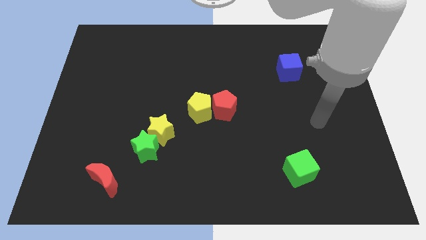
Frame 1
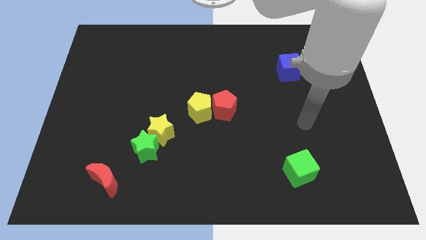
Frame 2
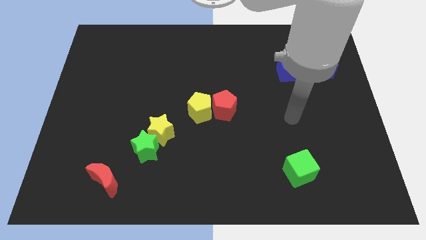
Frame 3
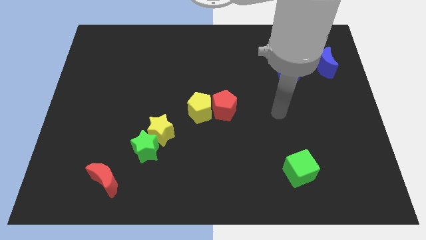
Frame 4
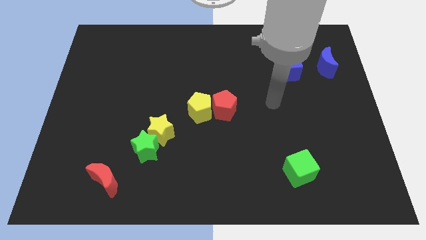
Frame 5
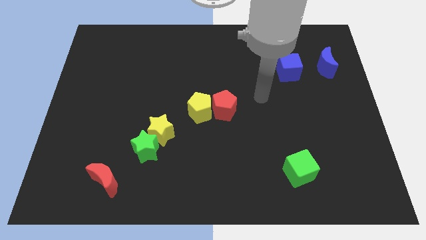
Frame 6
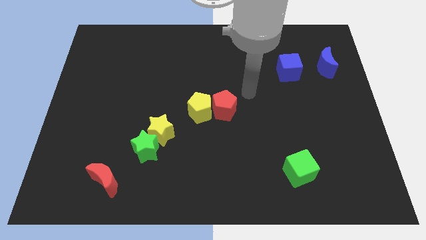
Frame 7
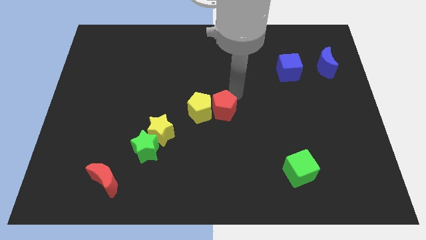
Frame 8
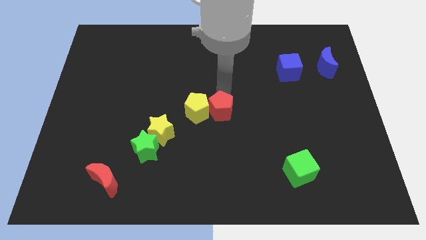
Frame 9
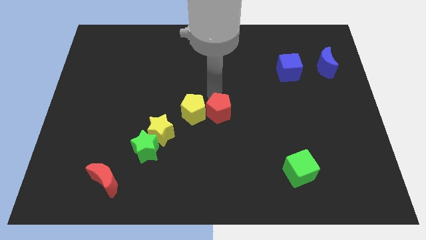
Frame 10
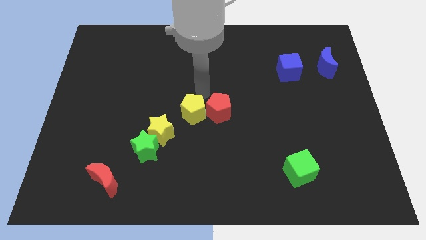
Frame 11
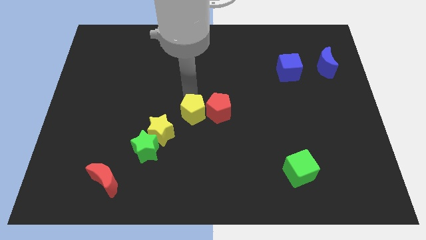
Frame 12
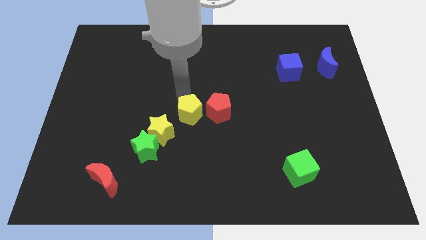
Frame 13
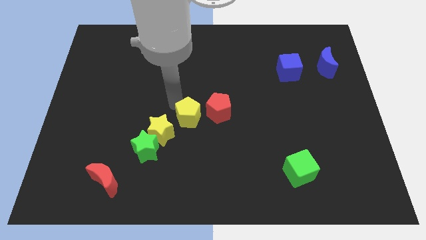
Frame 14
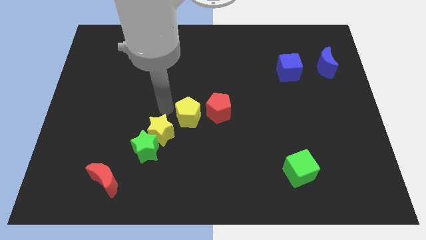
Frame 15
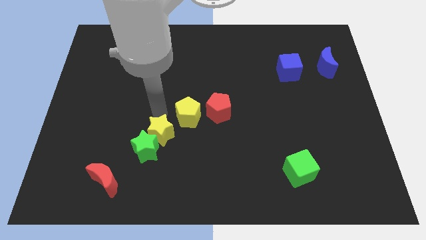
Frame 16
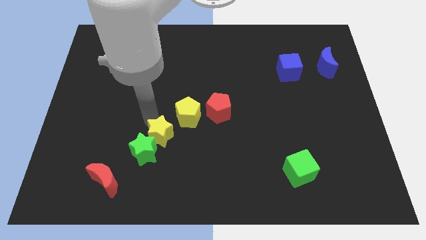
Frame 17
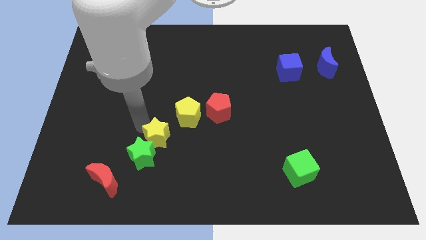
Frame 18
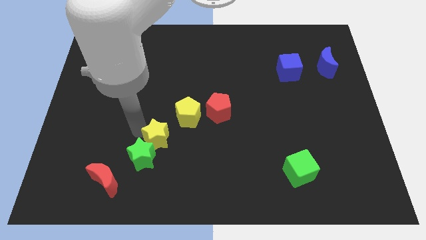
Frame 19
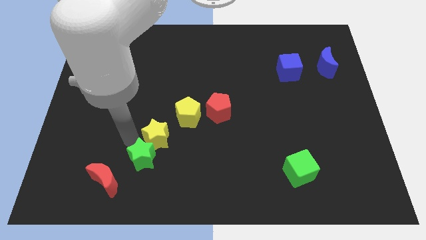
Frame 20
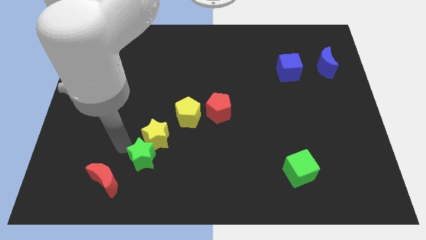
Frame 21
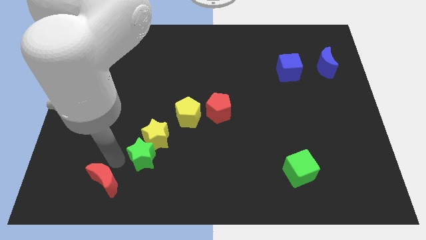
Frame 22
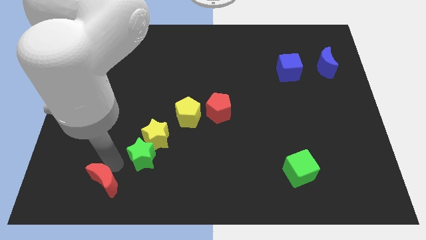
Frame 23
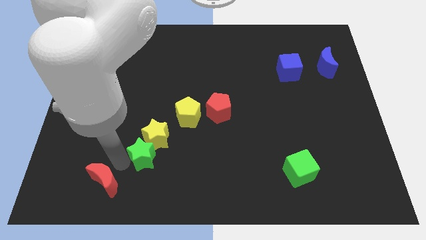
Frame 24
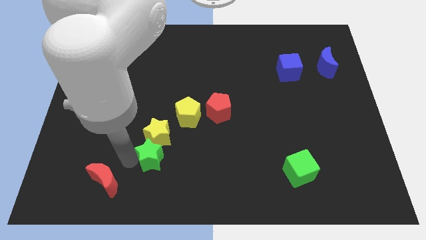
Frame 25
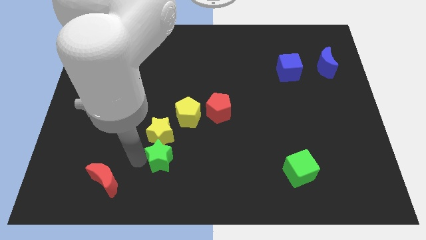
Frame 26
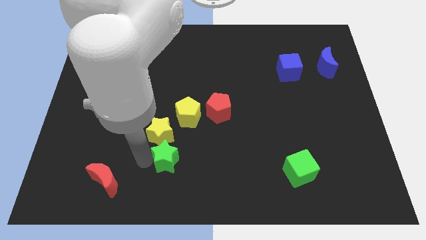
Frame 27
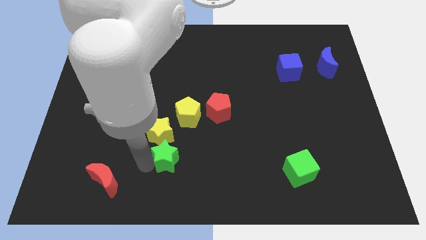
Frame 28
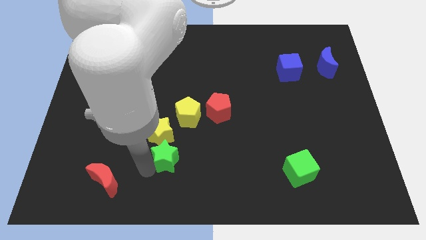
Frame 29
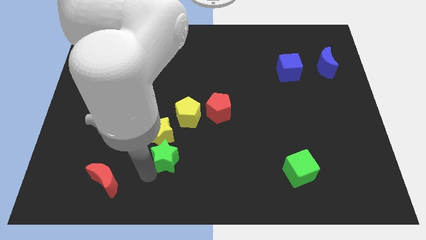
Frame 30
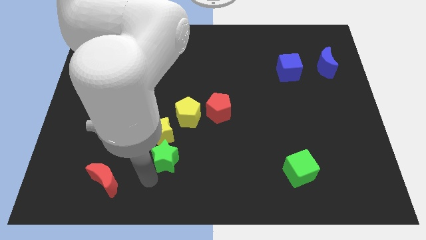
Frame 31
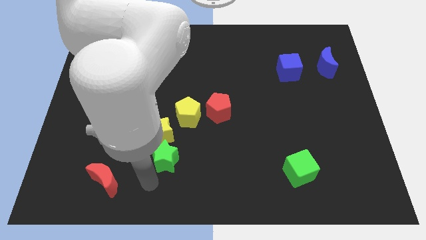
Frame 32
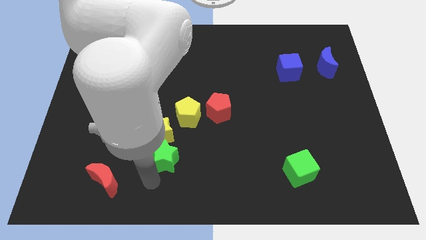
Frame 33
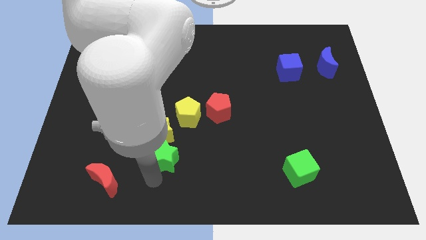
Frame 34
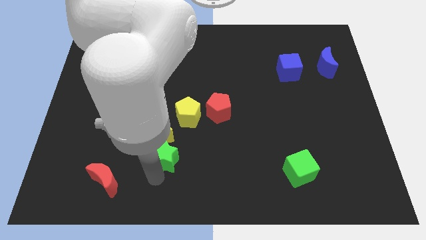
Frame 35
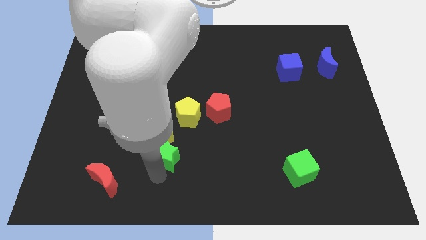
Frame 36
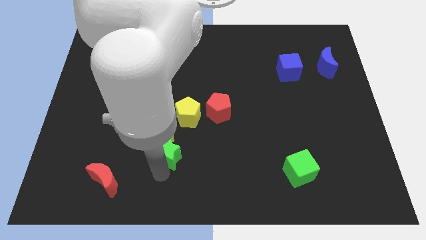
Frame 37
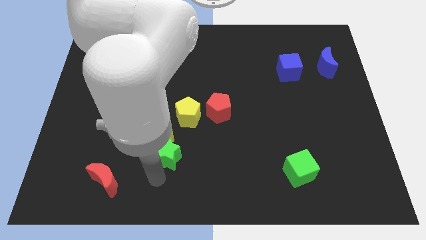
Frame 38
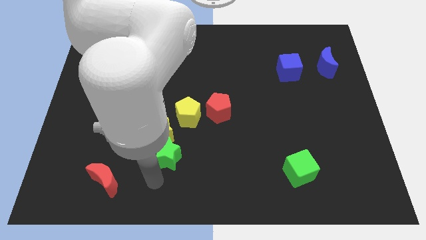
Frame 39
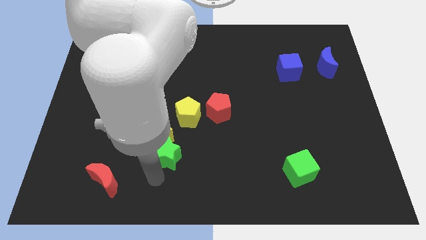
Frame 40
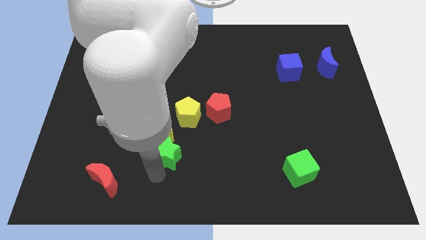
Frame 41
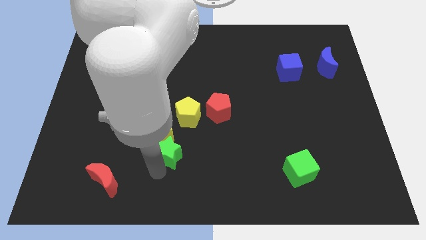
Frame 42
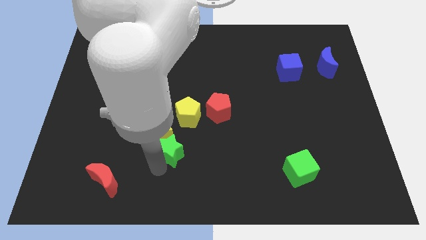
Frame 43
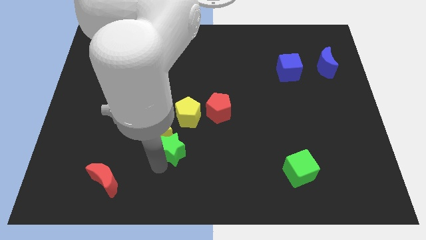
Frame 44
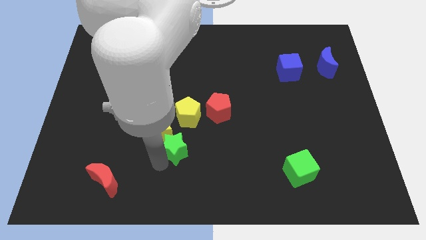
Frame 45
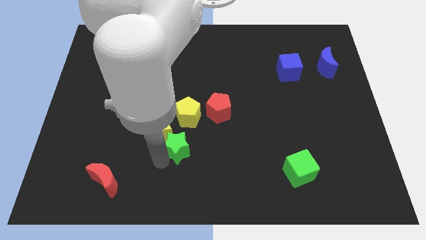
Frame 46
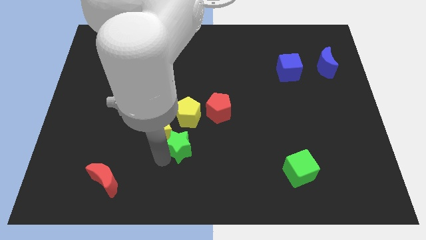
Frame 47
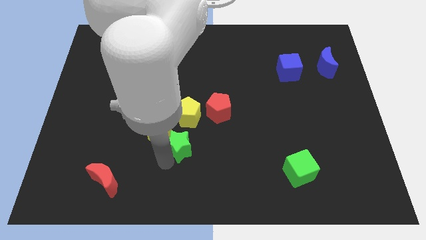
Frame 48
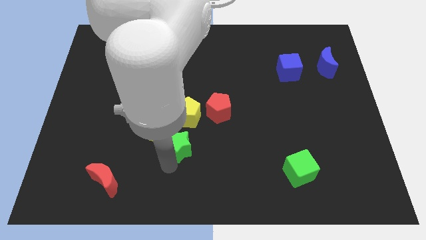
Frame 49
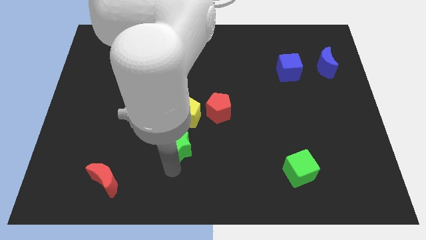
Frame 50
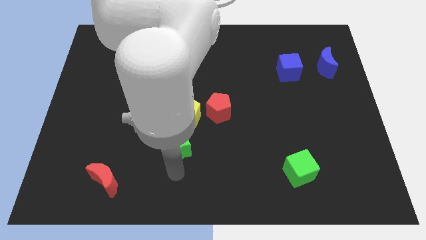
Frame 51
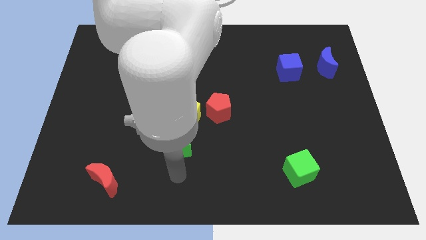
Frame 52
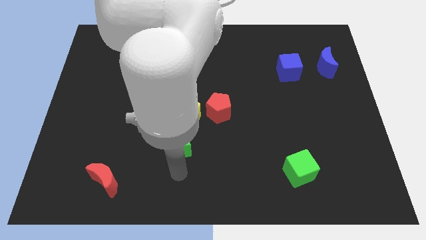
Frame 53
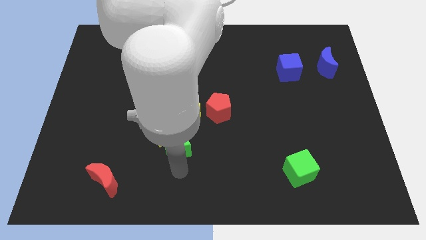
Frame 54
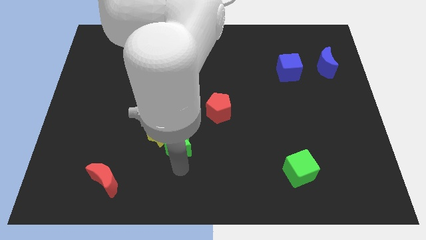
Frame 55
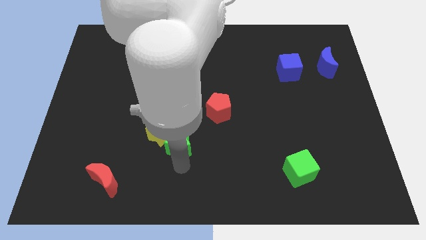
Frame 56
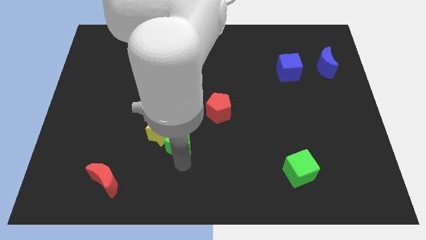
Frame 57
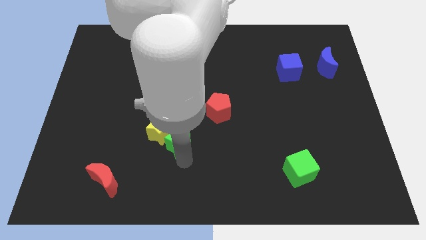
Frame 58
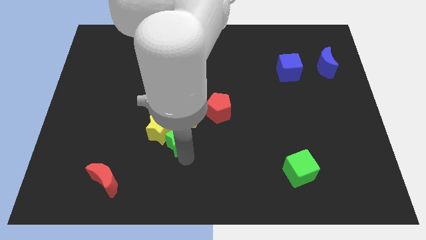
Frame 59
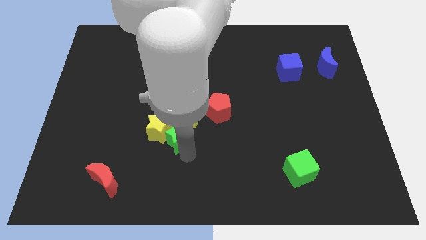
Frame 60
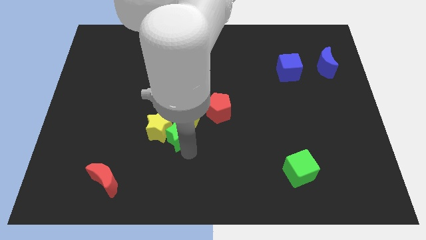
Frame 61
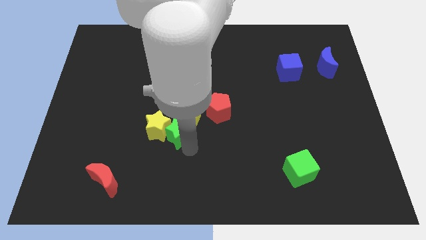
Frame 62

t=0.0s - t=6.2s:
move the green star next to the yellow pentagon

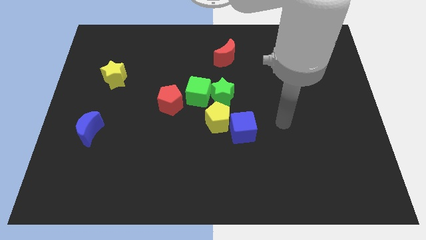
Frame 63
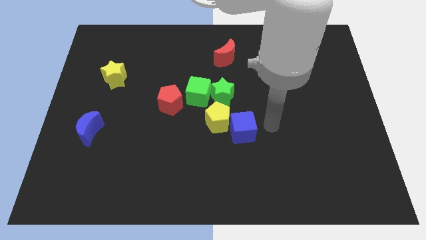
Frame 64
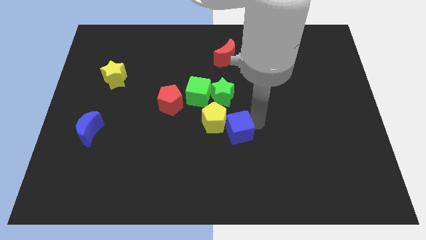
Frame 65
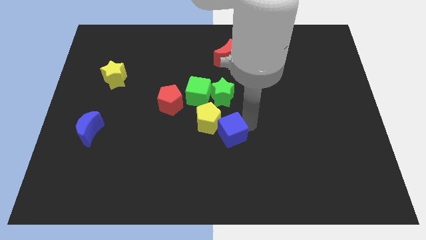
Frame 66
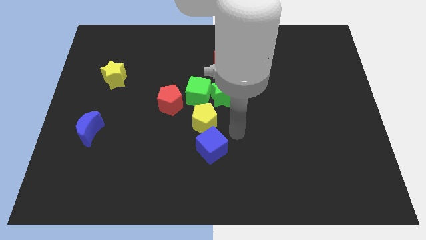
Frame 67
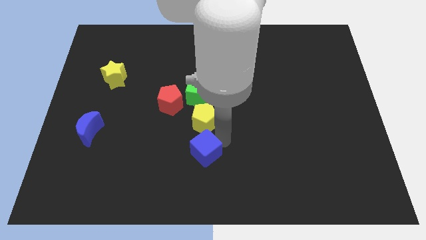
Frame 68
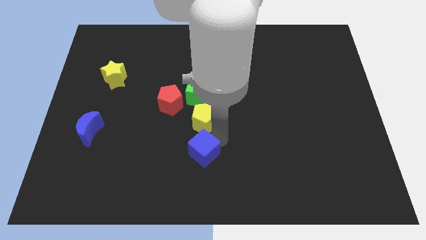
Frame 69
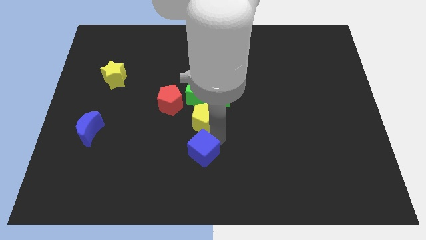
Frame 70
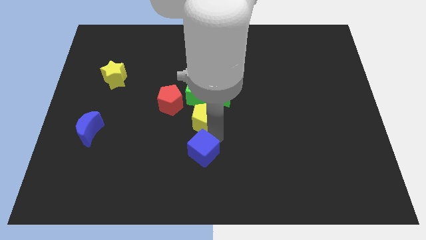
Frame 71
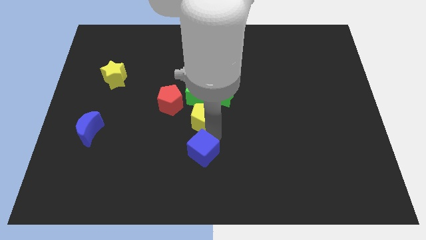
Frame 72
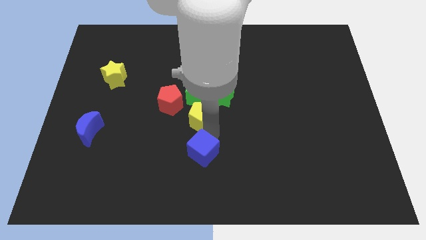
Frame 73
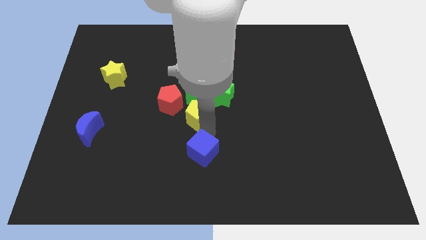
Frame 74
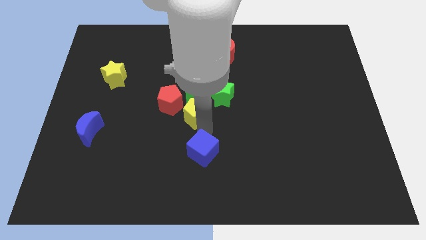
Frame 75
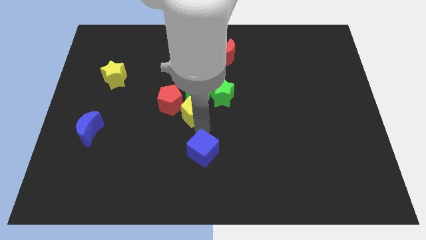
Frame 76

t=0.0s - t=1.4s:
put the yellow pentagon close to the red pentagon
